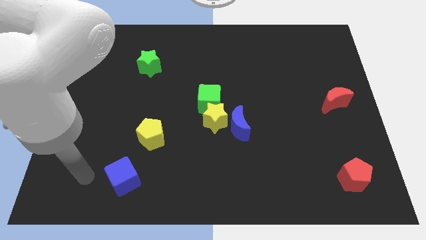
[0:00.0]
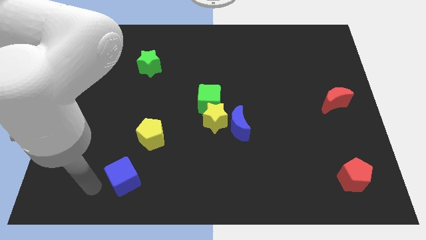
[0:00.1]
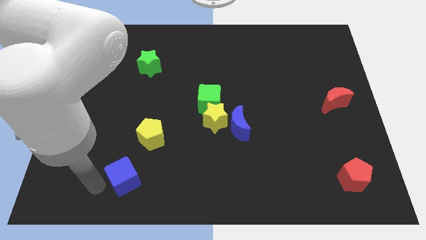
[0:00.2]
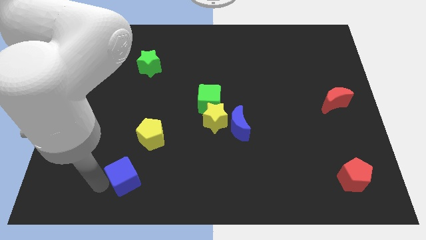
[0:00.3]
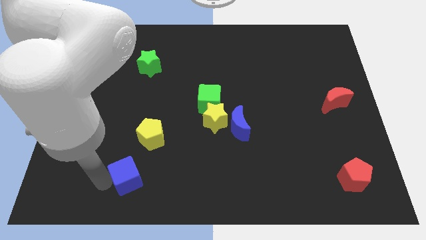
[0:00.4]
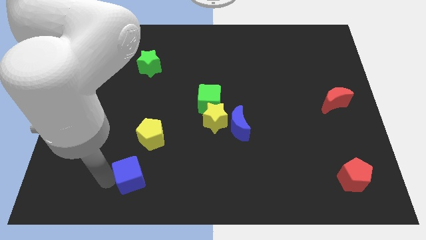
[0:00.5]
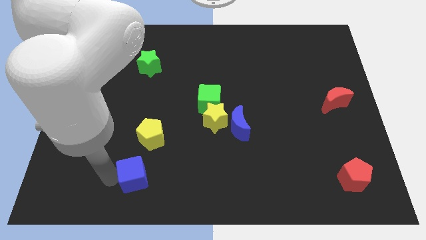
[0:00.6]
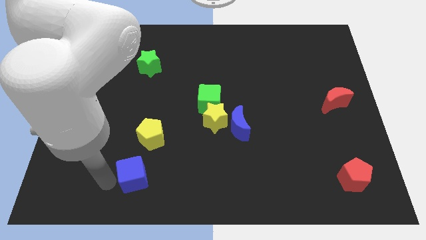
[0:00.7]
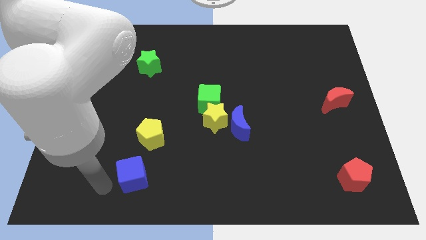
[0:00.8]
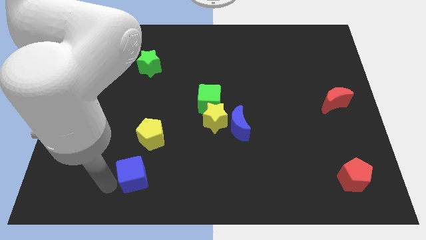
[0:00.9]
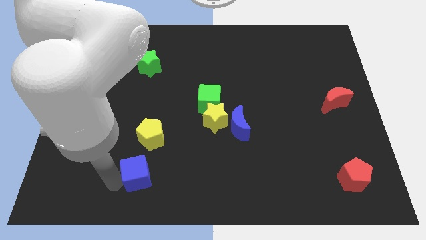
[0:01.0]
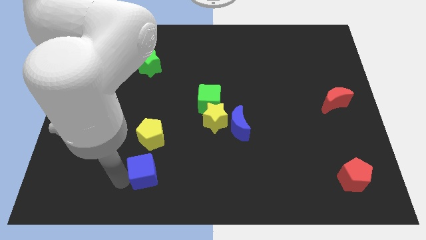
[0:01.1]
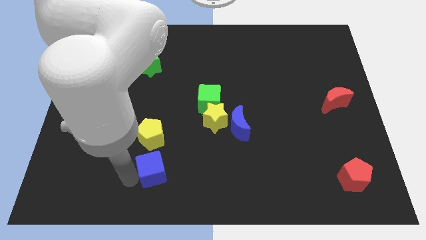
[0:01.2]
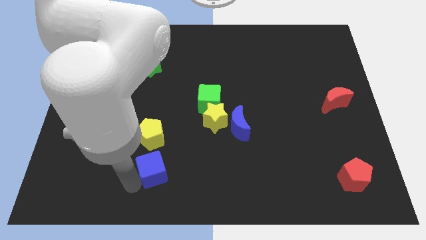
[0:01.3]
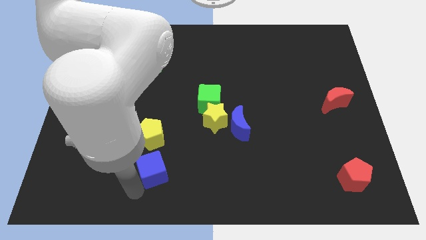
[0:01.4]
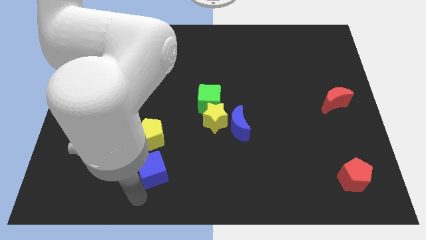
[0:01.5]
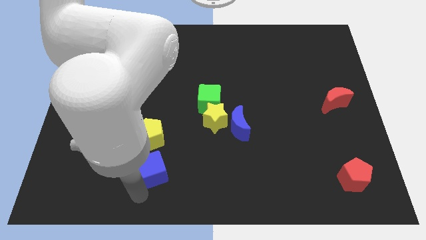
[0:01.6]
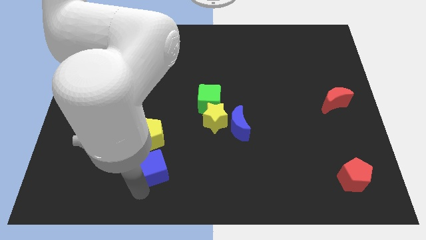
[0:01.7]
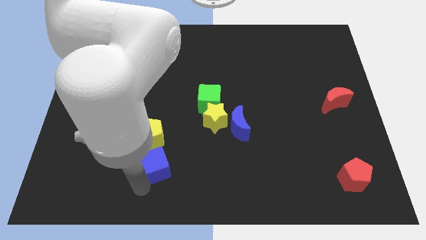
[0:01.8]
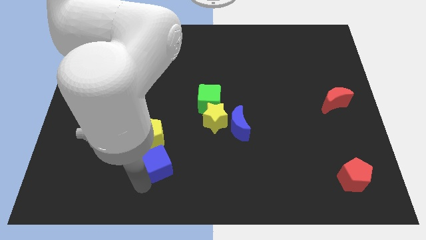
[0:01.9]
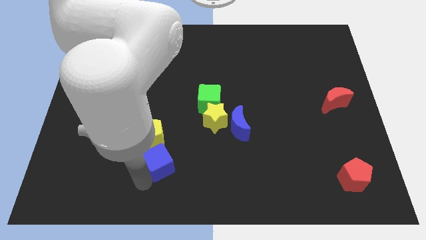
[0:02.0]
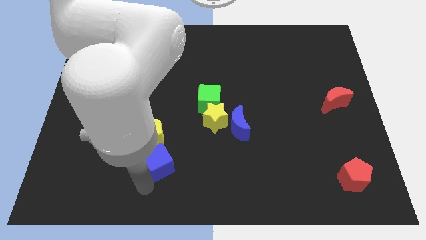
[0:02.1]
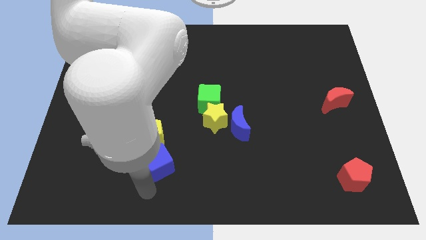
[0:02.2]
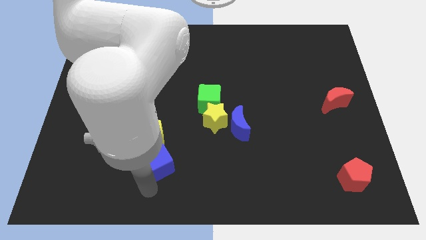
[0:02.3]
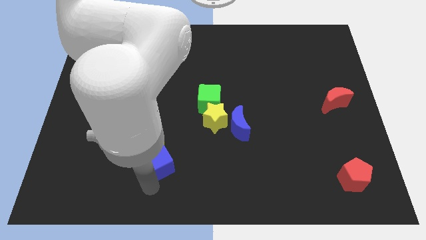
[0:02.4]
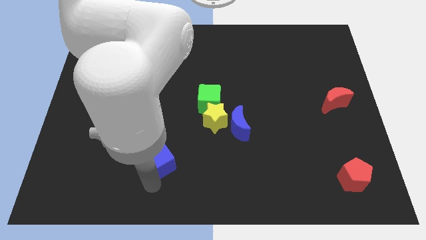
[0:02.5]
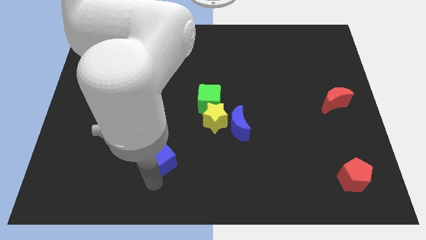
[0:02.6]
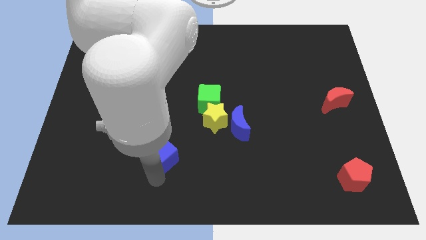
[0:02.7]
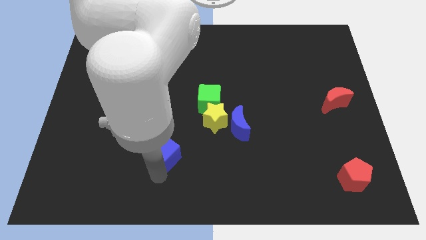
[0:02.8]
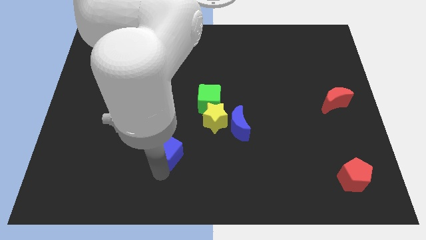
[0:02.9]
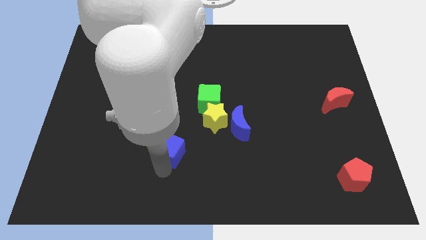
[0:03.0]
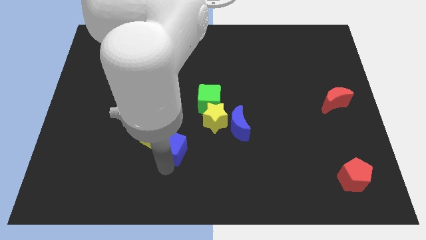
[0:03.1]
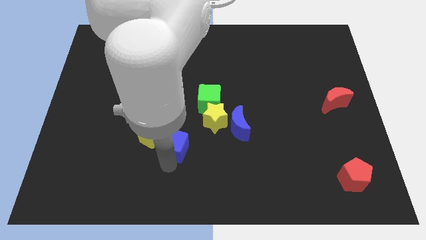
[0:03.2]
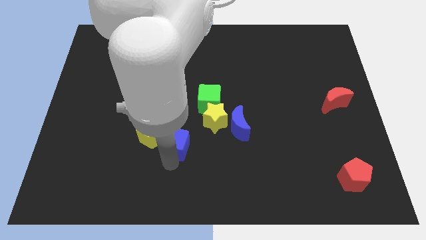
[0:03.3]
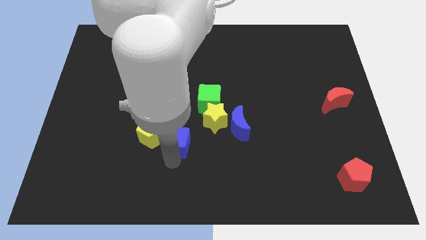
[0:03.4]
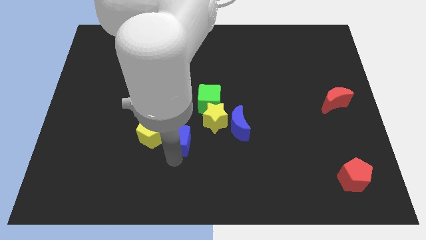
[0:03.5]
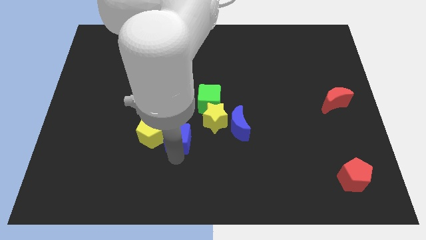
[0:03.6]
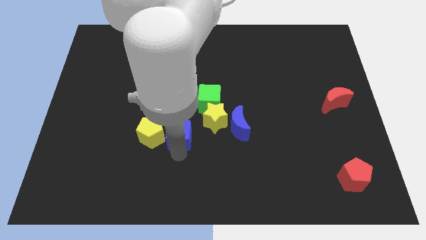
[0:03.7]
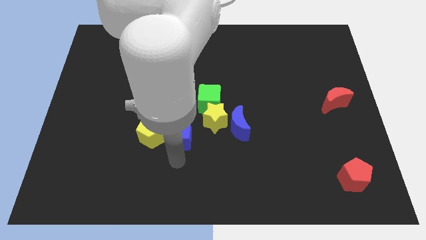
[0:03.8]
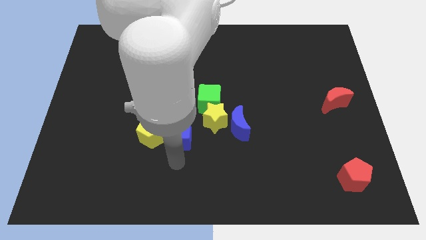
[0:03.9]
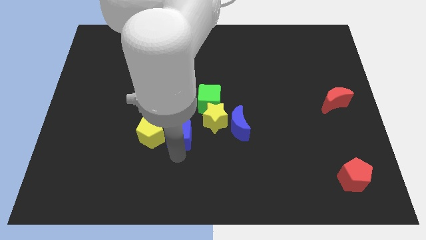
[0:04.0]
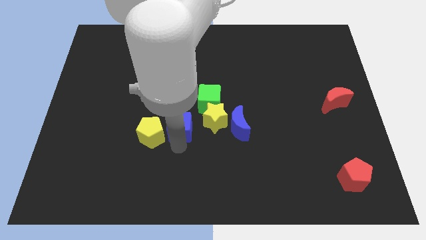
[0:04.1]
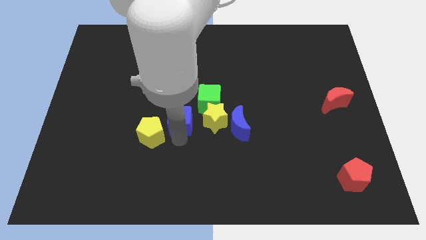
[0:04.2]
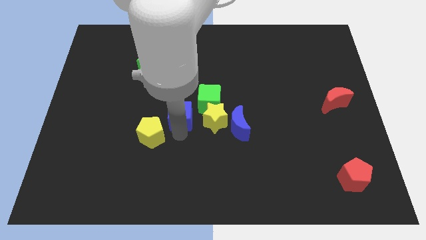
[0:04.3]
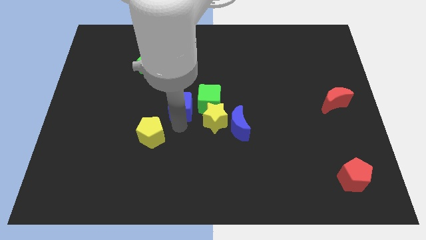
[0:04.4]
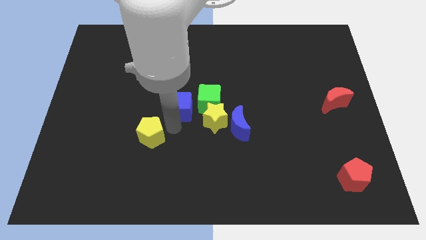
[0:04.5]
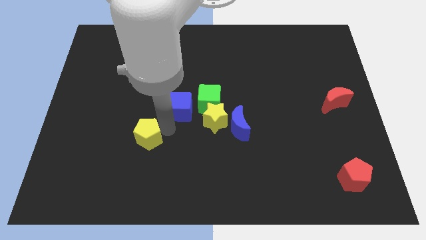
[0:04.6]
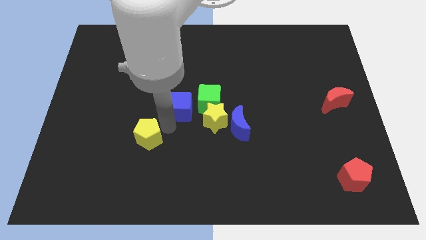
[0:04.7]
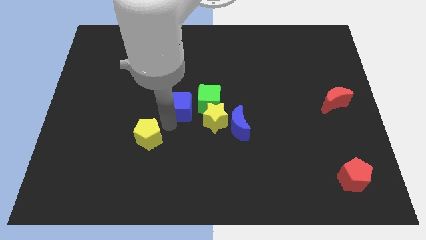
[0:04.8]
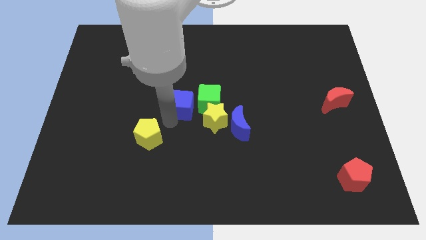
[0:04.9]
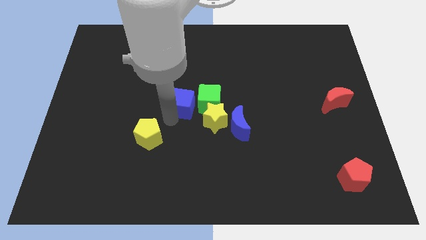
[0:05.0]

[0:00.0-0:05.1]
slide the blue cube upwards and then to the right

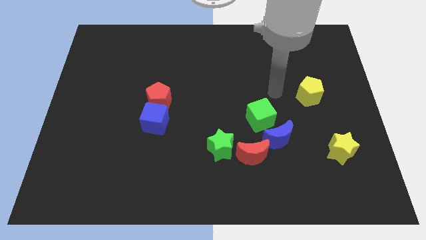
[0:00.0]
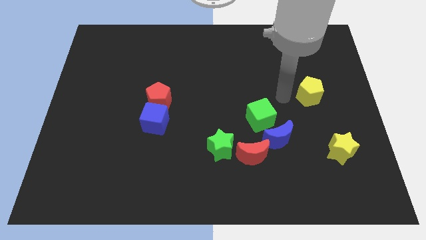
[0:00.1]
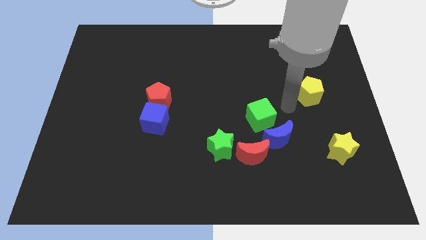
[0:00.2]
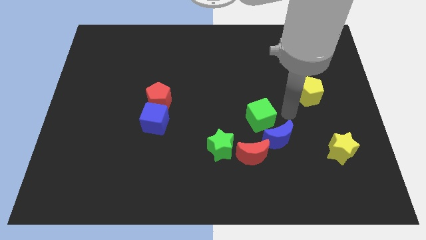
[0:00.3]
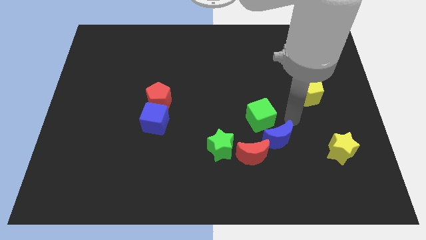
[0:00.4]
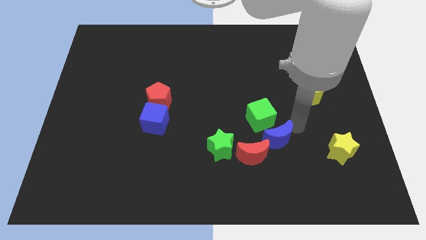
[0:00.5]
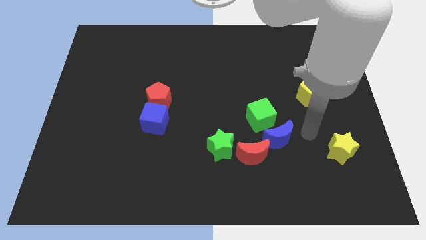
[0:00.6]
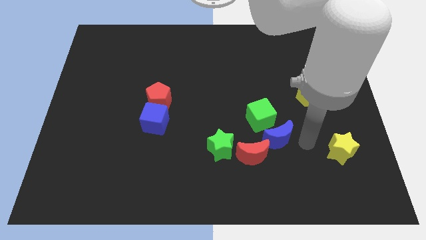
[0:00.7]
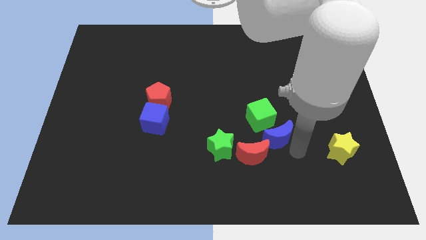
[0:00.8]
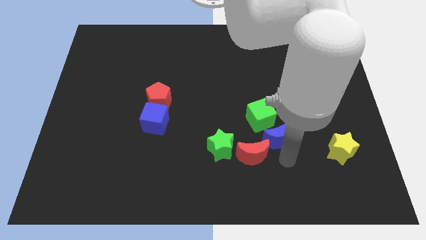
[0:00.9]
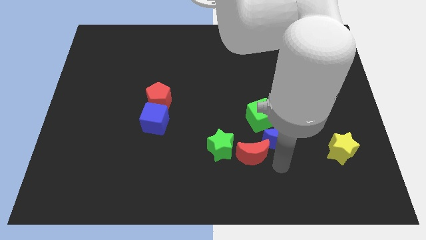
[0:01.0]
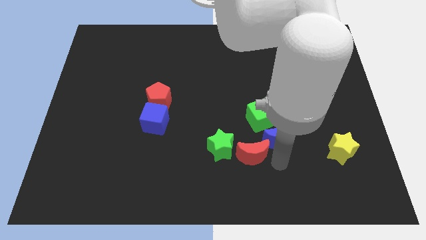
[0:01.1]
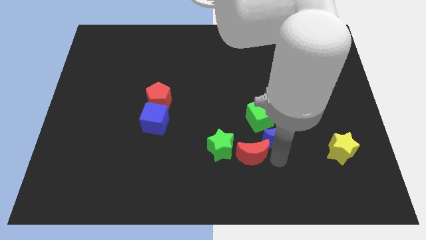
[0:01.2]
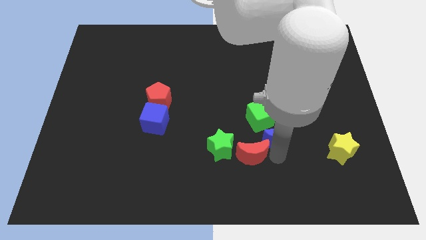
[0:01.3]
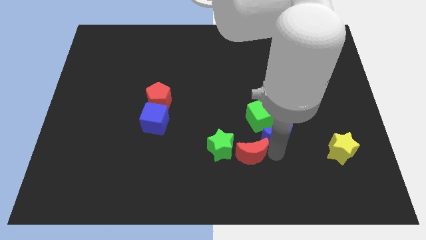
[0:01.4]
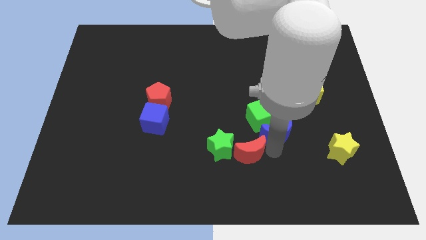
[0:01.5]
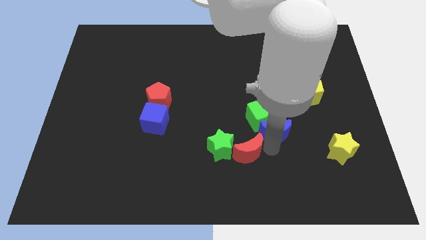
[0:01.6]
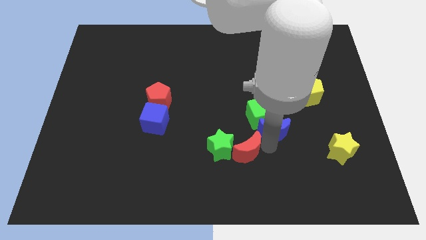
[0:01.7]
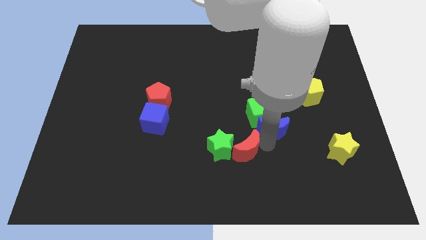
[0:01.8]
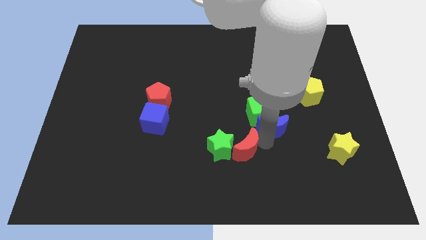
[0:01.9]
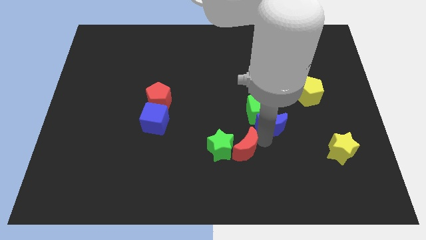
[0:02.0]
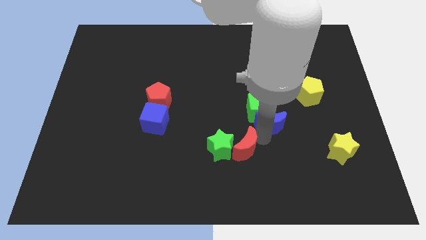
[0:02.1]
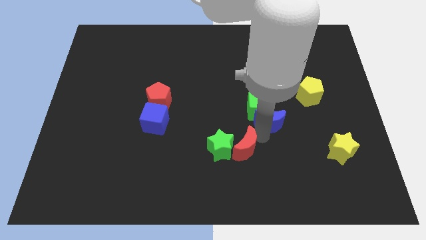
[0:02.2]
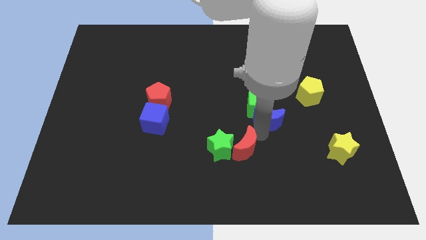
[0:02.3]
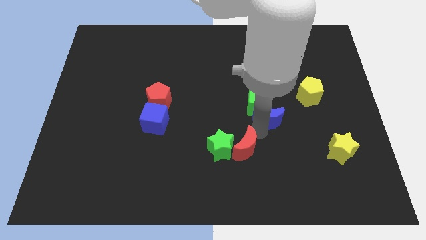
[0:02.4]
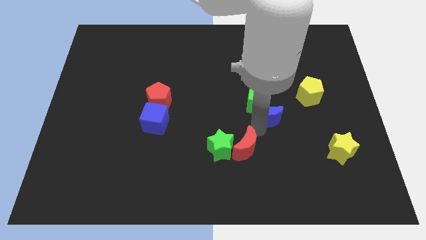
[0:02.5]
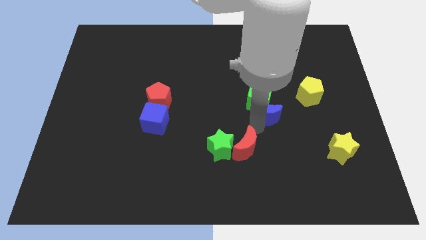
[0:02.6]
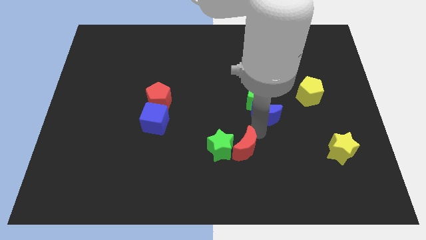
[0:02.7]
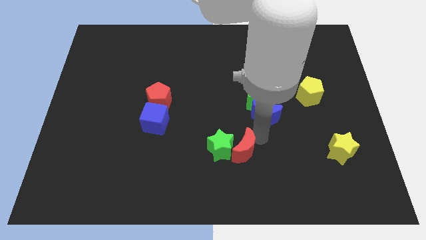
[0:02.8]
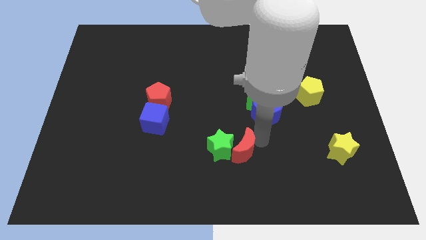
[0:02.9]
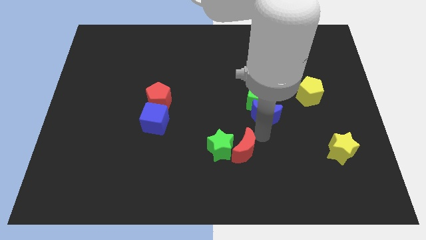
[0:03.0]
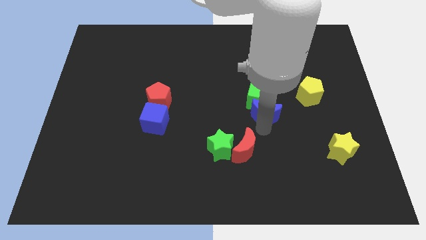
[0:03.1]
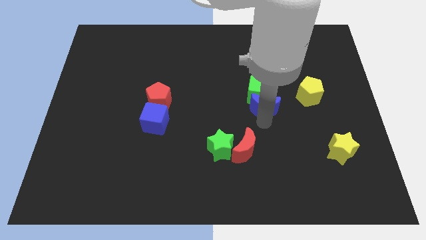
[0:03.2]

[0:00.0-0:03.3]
slightly move the blue moon upwards
